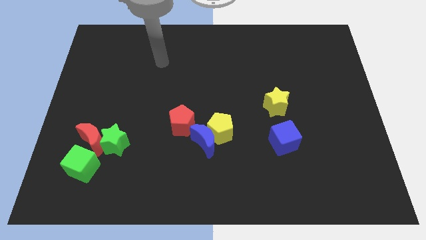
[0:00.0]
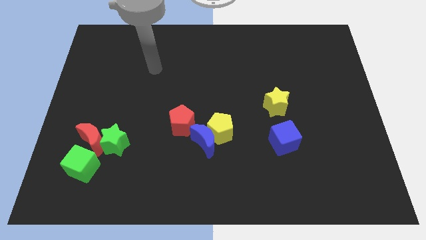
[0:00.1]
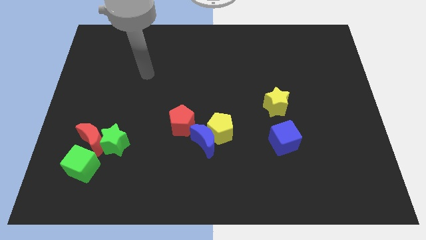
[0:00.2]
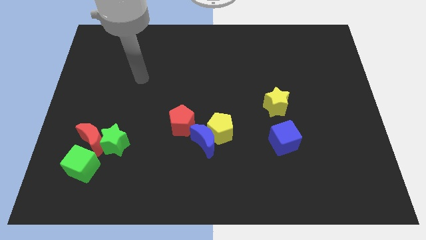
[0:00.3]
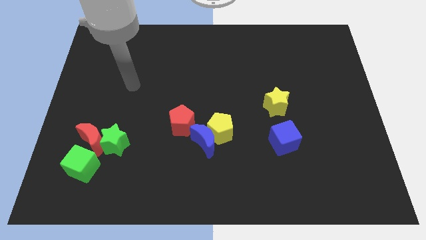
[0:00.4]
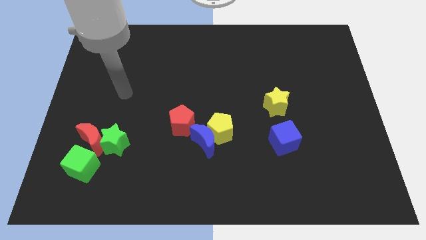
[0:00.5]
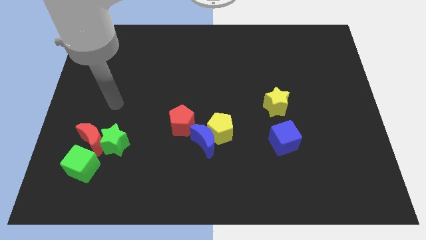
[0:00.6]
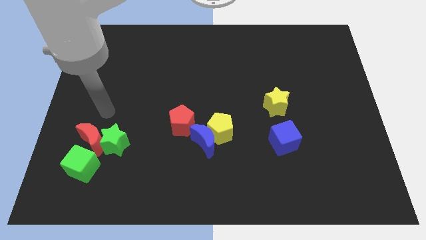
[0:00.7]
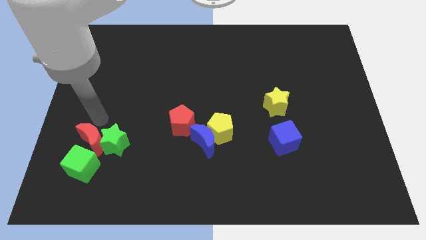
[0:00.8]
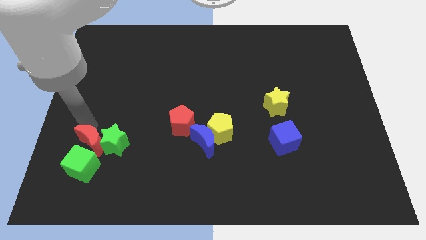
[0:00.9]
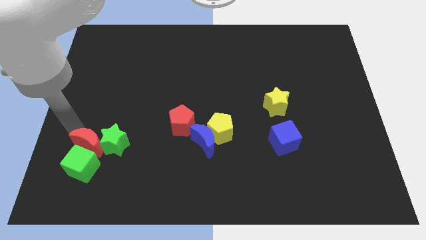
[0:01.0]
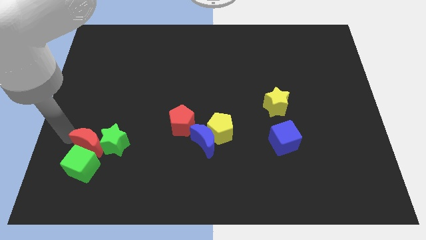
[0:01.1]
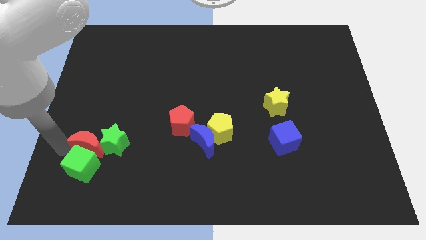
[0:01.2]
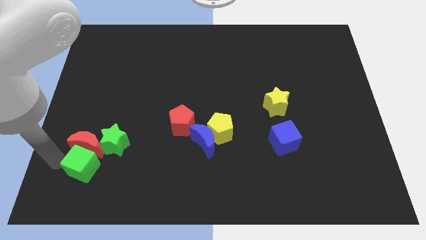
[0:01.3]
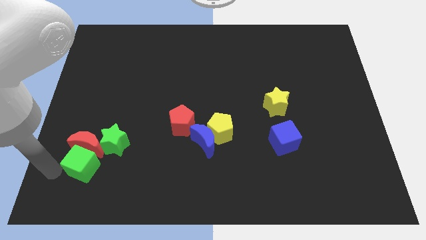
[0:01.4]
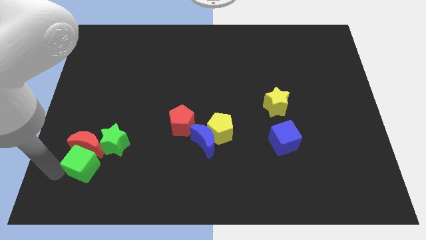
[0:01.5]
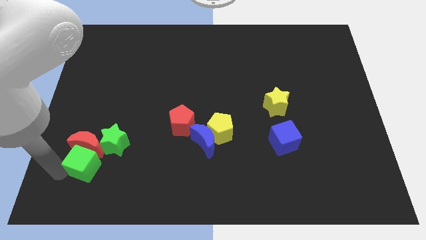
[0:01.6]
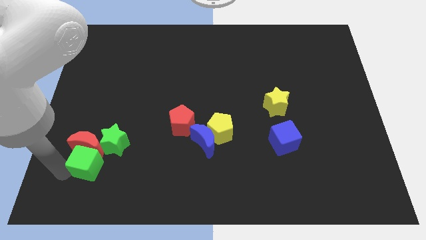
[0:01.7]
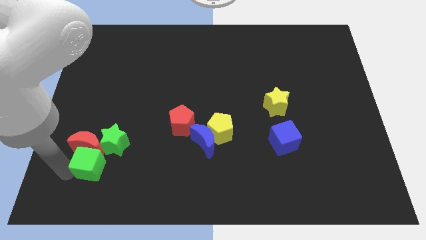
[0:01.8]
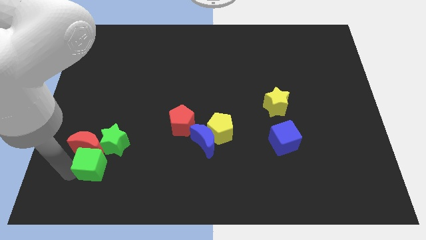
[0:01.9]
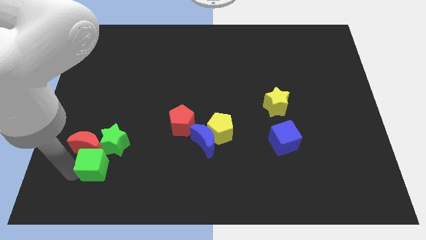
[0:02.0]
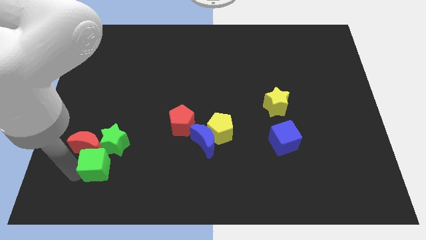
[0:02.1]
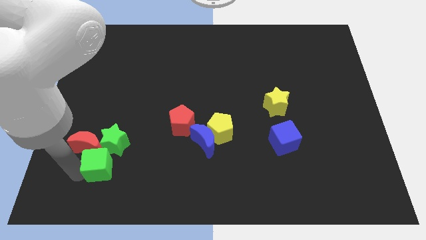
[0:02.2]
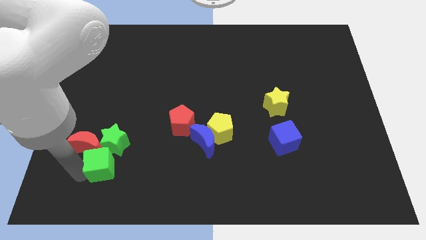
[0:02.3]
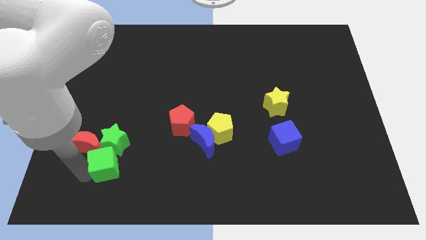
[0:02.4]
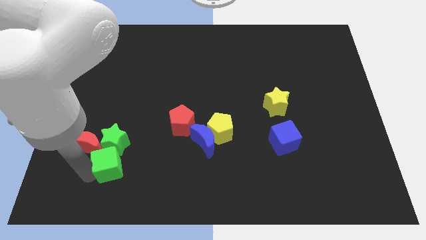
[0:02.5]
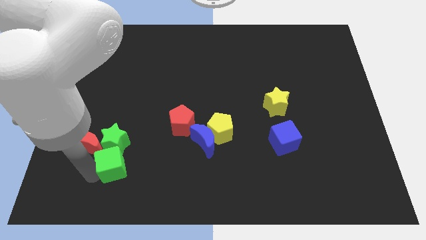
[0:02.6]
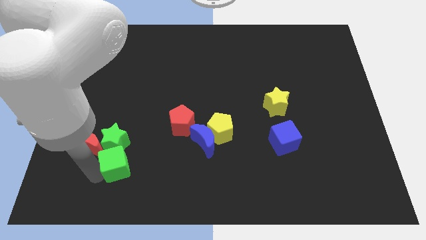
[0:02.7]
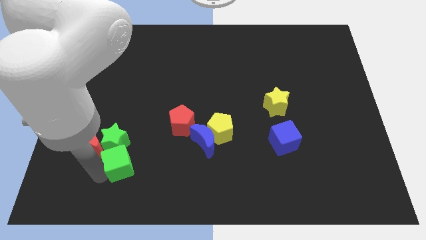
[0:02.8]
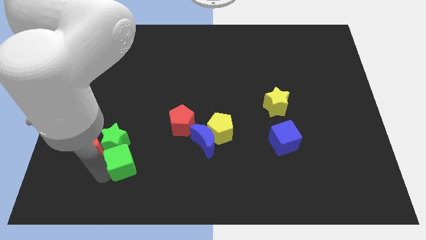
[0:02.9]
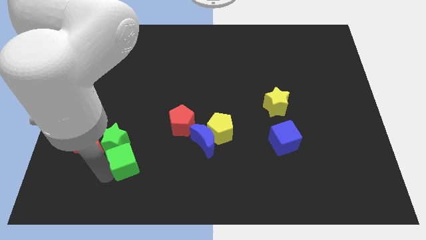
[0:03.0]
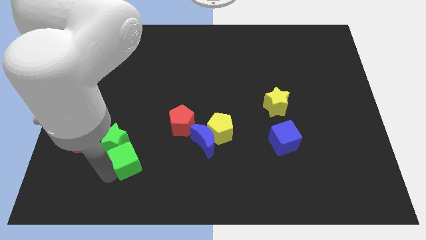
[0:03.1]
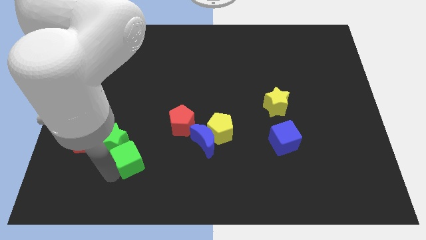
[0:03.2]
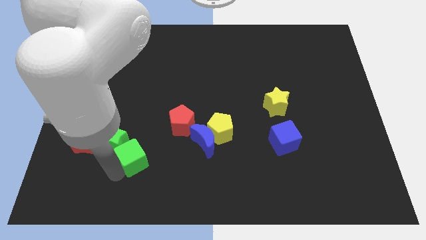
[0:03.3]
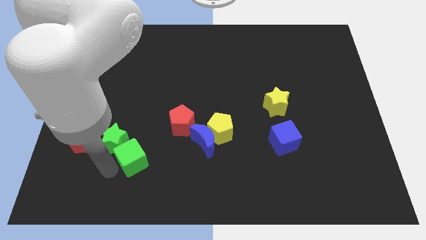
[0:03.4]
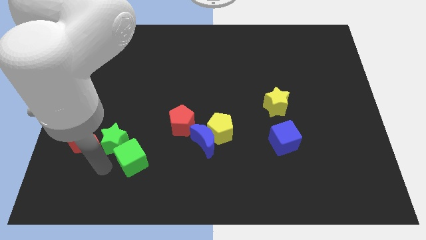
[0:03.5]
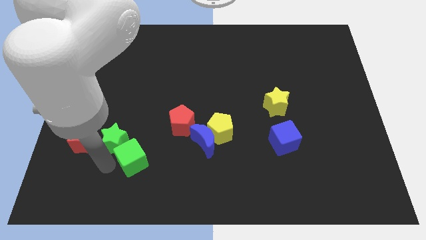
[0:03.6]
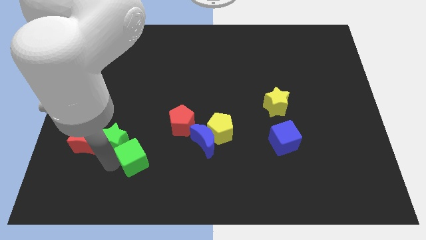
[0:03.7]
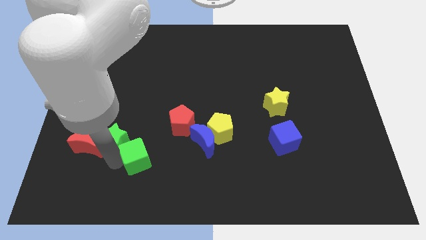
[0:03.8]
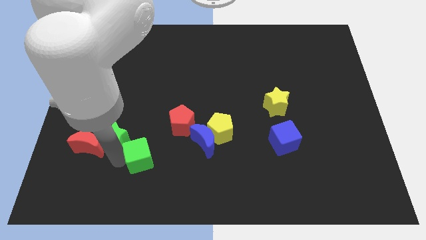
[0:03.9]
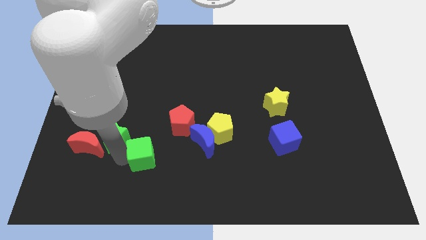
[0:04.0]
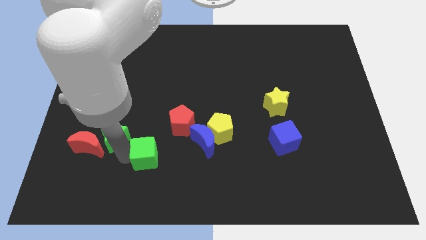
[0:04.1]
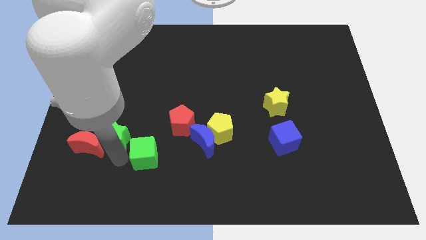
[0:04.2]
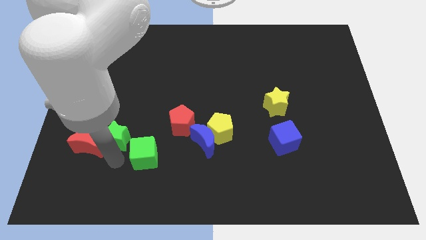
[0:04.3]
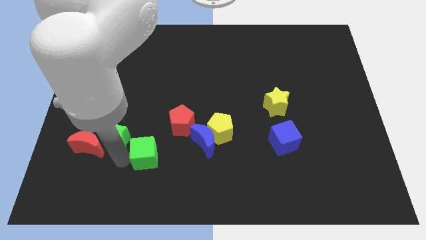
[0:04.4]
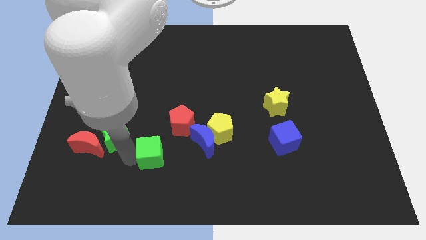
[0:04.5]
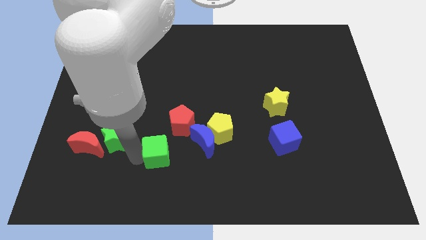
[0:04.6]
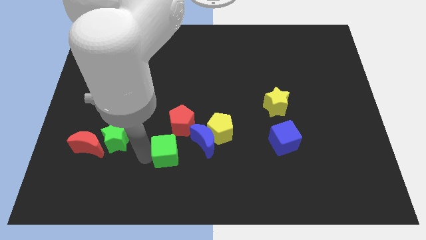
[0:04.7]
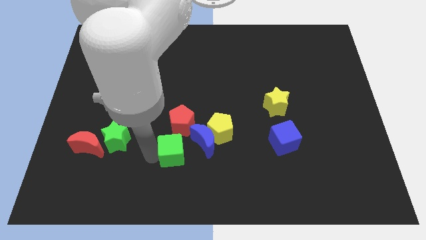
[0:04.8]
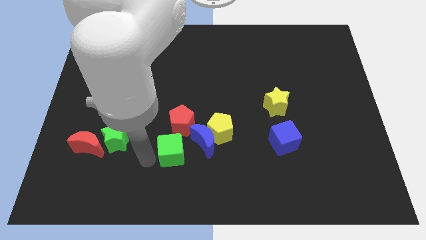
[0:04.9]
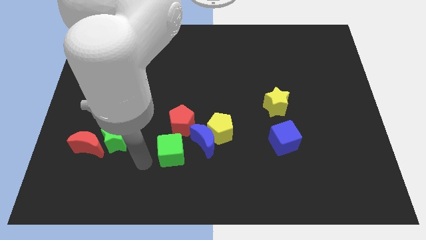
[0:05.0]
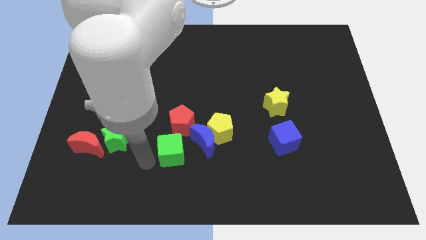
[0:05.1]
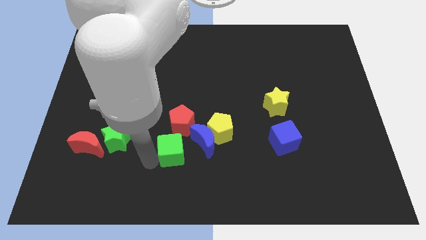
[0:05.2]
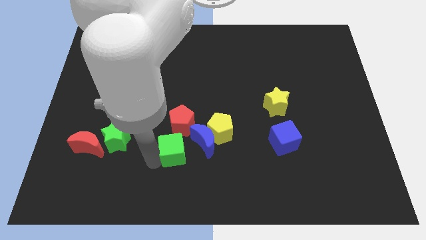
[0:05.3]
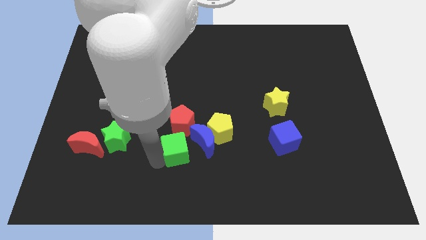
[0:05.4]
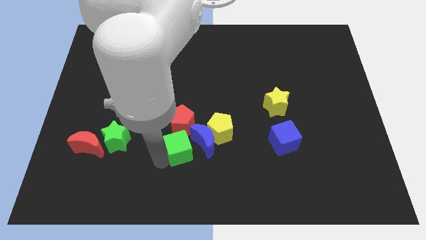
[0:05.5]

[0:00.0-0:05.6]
slide the green cube to the blue moon

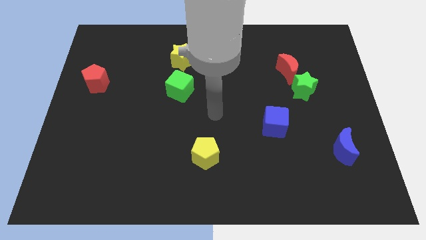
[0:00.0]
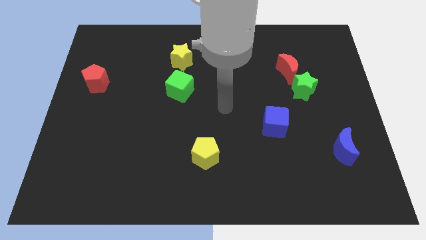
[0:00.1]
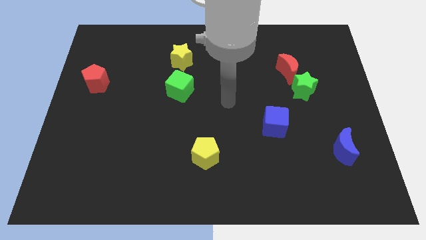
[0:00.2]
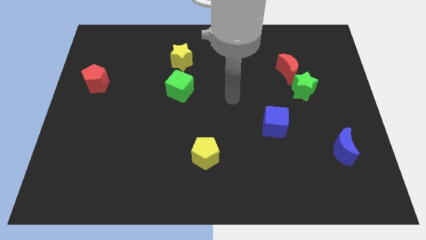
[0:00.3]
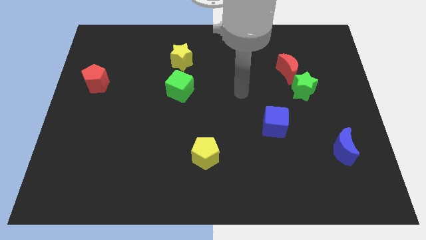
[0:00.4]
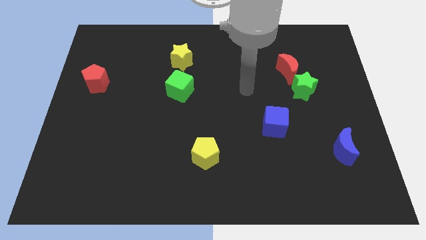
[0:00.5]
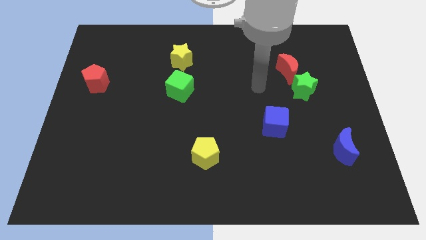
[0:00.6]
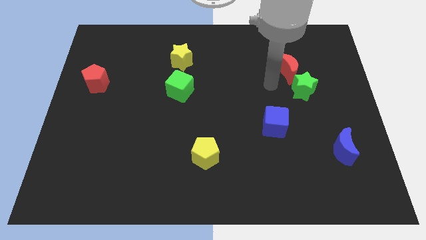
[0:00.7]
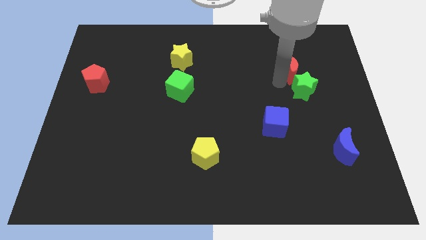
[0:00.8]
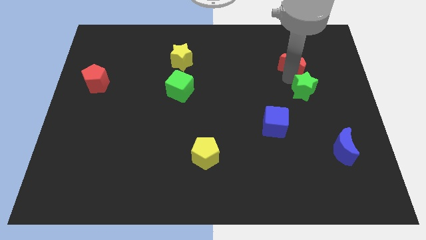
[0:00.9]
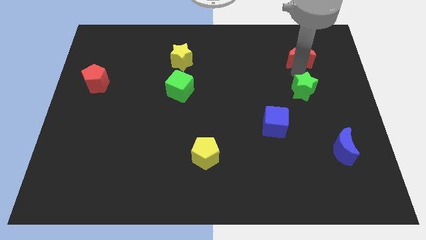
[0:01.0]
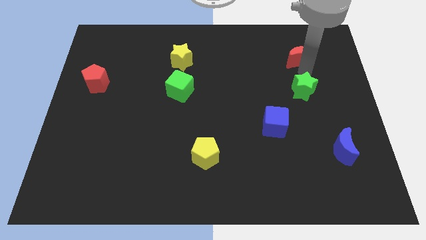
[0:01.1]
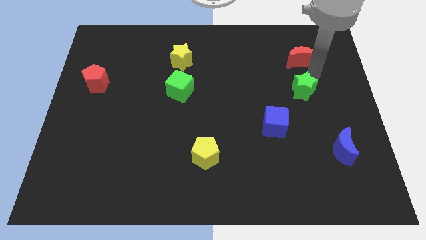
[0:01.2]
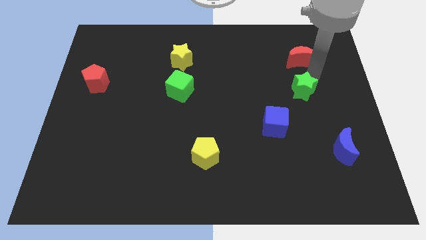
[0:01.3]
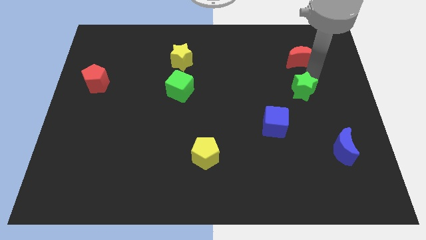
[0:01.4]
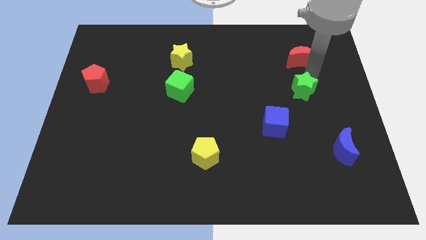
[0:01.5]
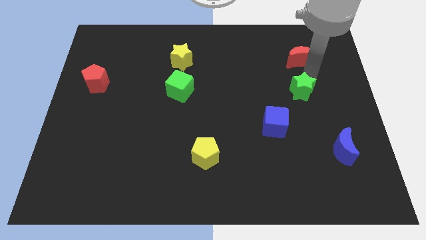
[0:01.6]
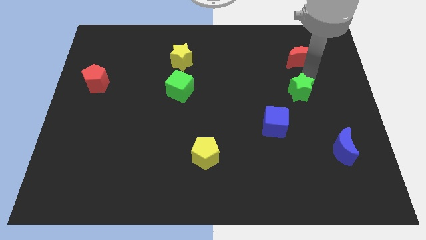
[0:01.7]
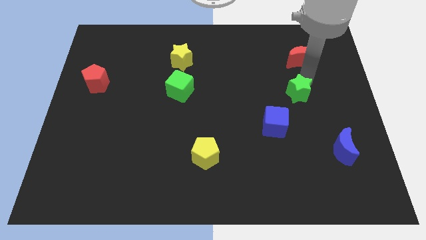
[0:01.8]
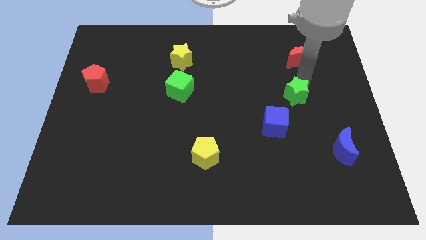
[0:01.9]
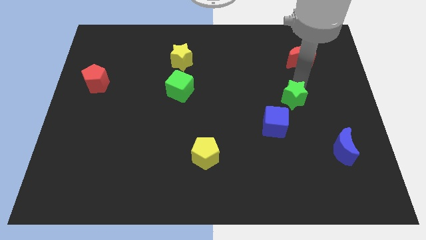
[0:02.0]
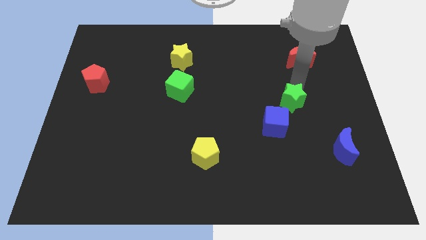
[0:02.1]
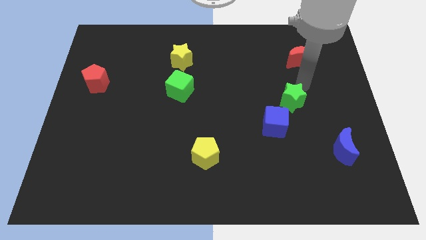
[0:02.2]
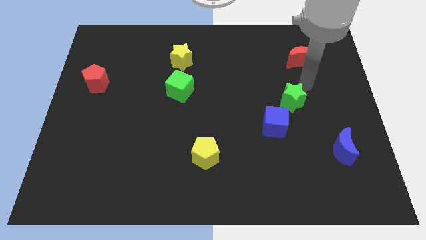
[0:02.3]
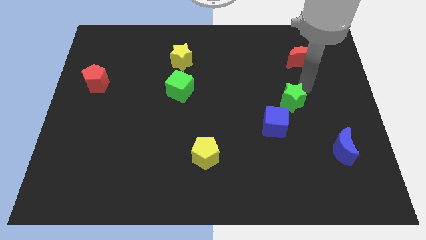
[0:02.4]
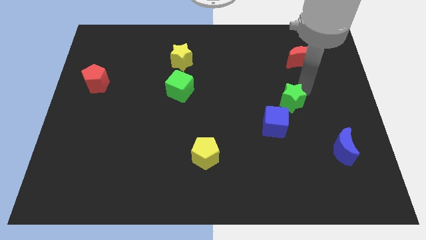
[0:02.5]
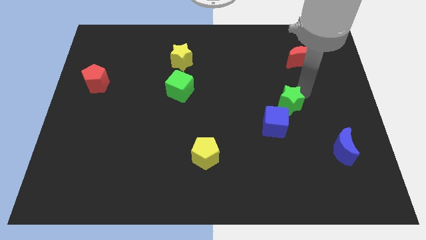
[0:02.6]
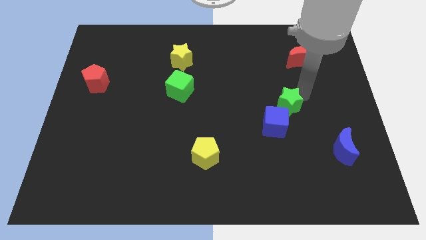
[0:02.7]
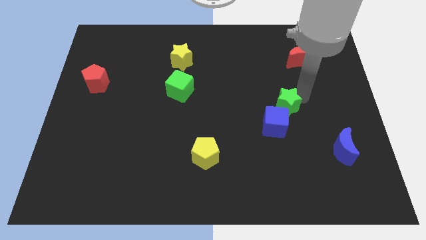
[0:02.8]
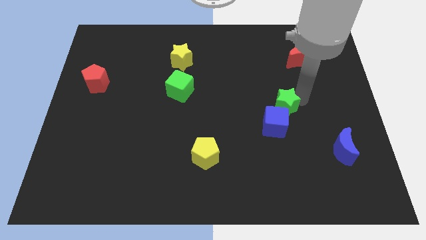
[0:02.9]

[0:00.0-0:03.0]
move the green star next to the blue cube

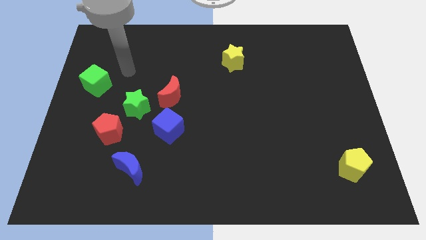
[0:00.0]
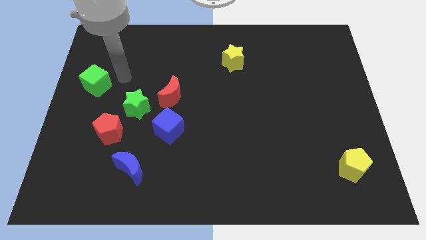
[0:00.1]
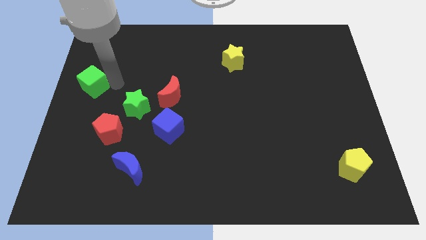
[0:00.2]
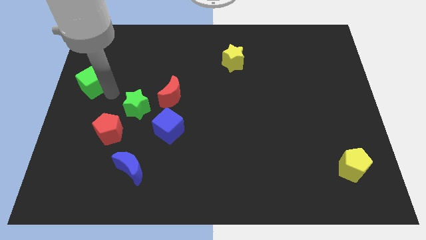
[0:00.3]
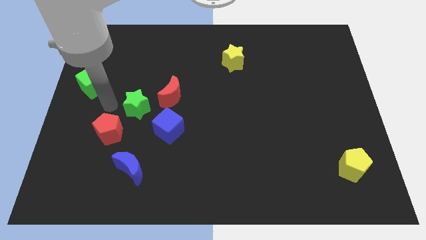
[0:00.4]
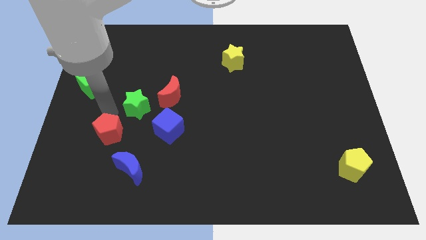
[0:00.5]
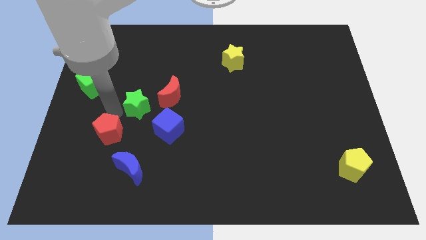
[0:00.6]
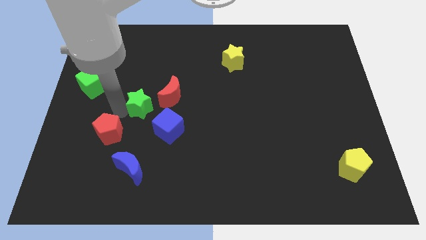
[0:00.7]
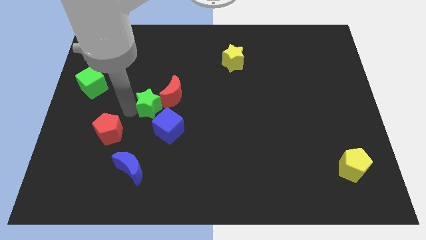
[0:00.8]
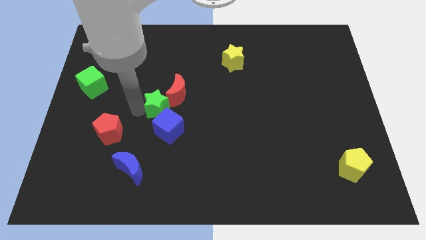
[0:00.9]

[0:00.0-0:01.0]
move the green star next to the red moon
